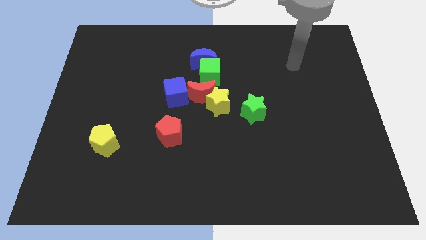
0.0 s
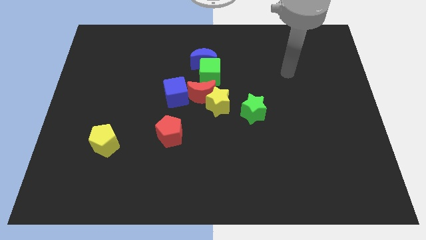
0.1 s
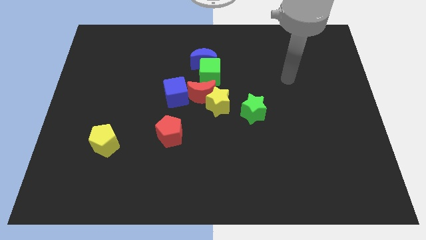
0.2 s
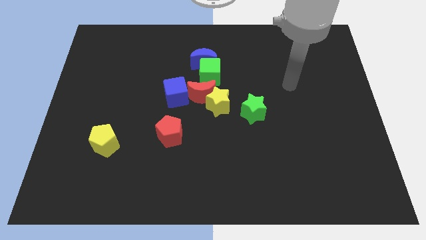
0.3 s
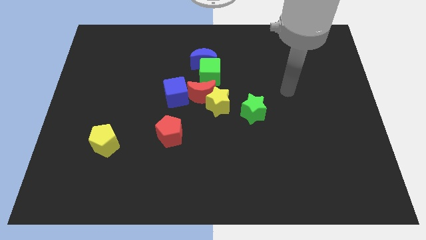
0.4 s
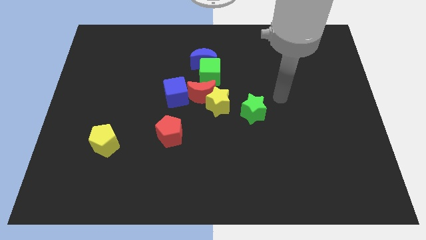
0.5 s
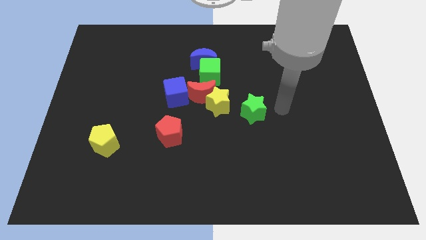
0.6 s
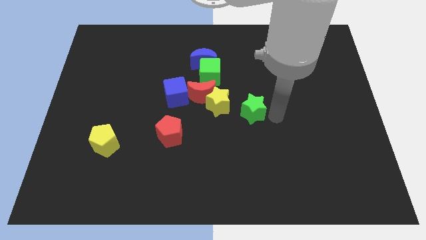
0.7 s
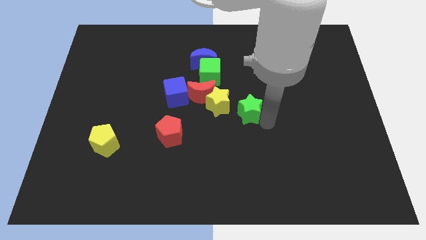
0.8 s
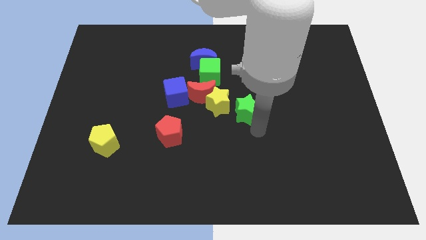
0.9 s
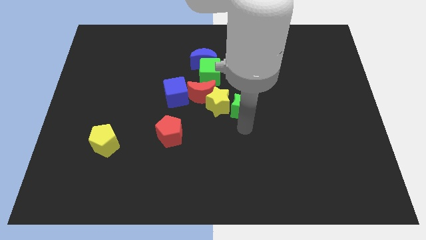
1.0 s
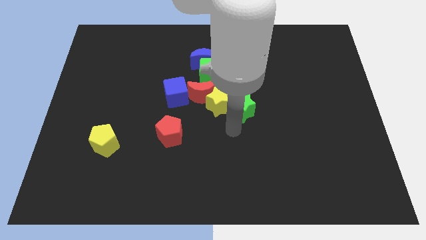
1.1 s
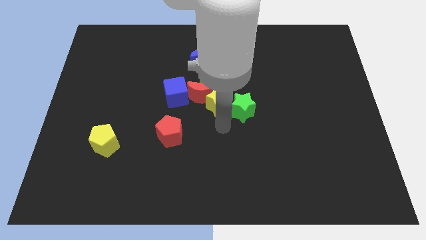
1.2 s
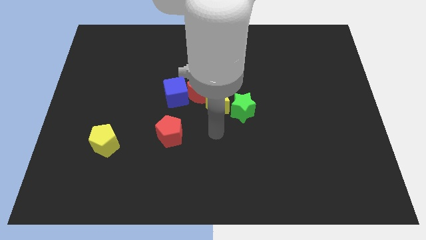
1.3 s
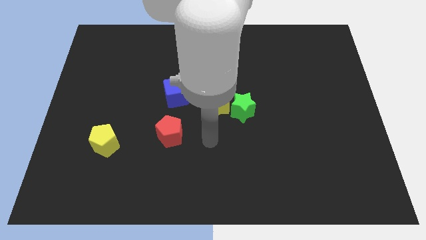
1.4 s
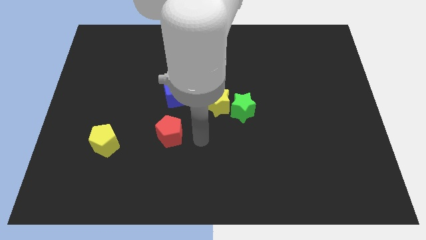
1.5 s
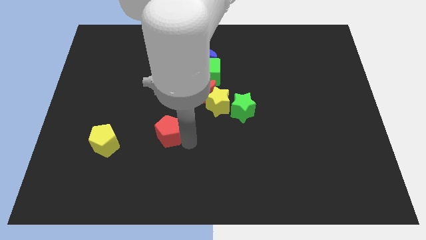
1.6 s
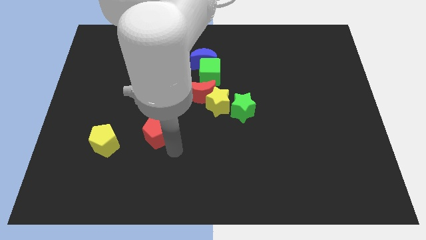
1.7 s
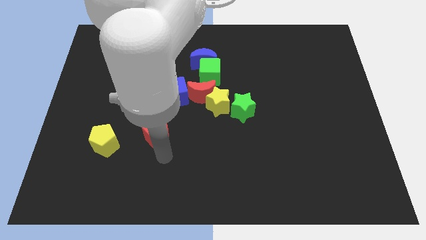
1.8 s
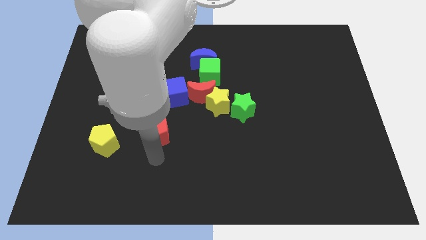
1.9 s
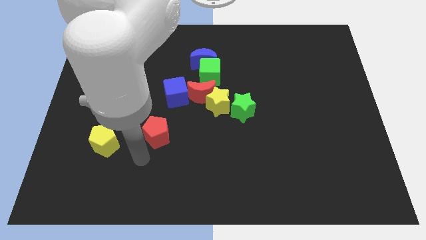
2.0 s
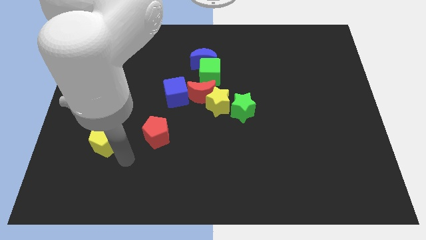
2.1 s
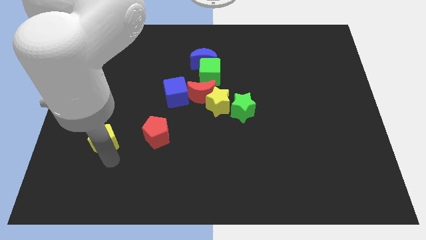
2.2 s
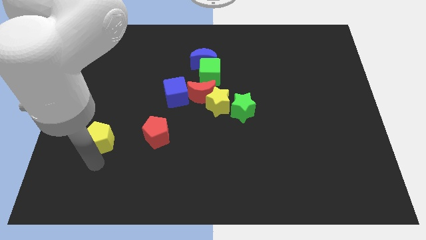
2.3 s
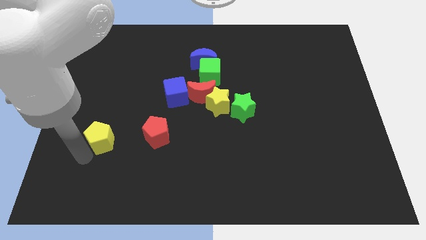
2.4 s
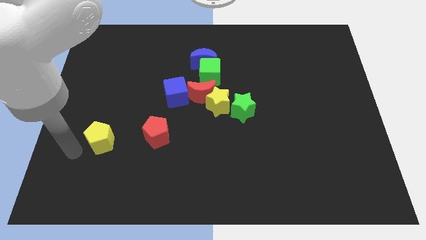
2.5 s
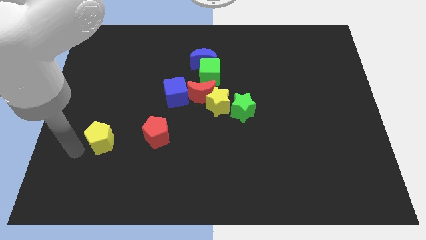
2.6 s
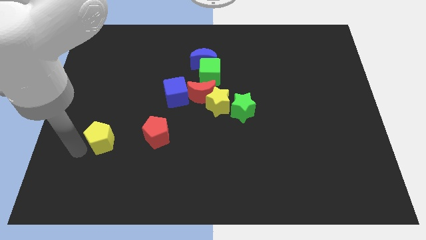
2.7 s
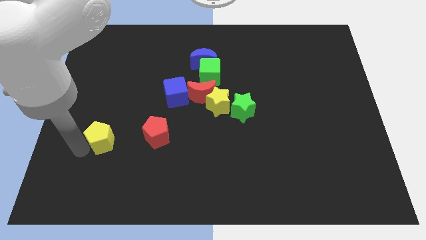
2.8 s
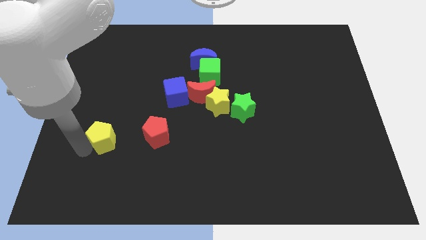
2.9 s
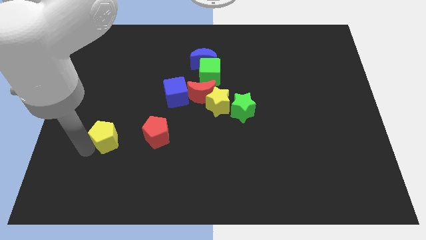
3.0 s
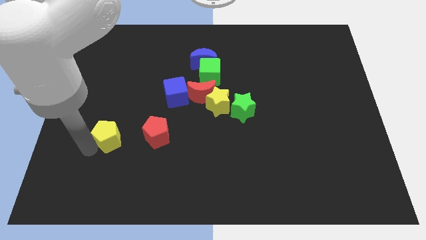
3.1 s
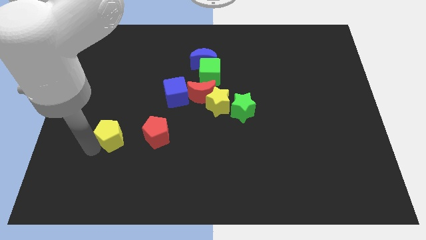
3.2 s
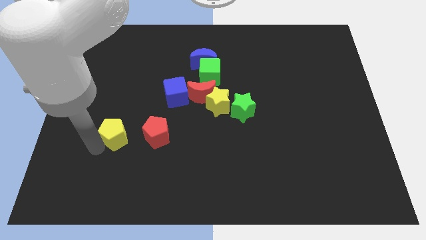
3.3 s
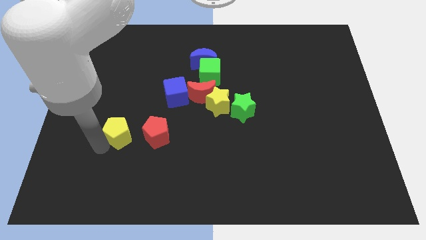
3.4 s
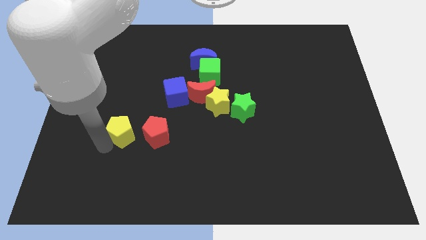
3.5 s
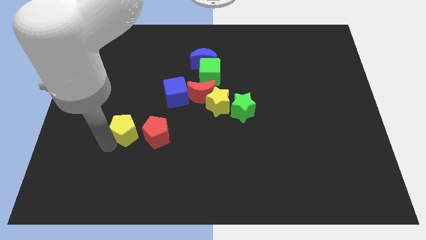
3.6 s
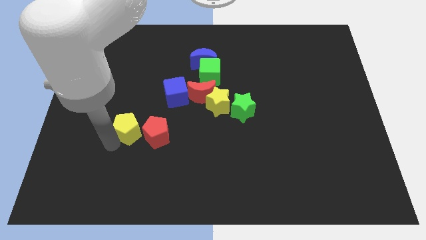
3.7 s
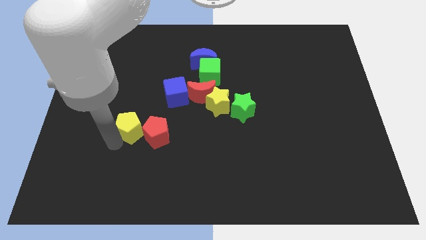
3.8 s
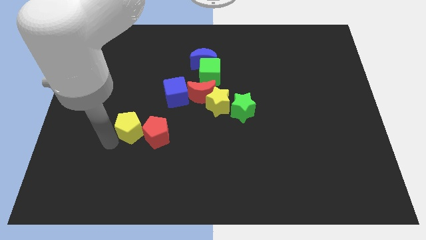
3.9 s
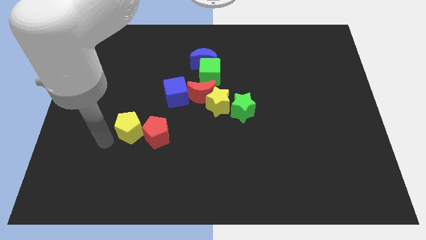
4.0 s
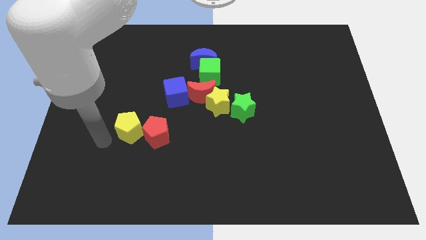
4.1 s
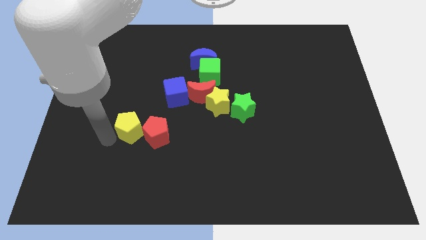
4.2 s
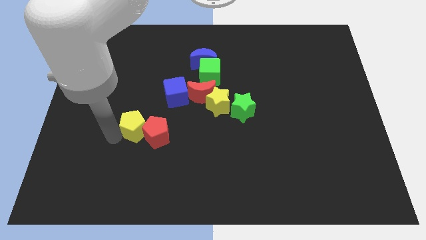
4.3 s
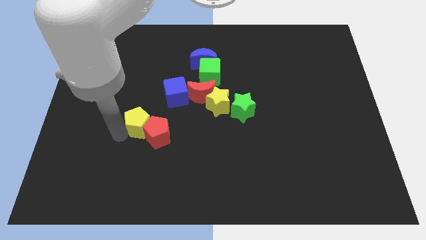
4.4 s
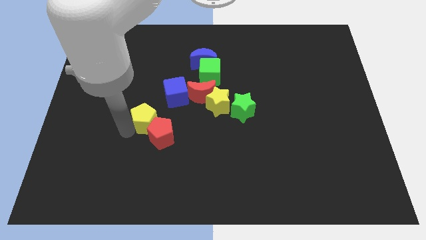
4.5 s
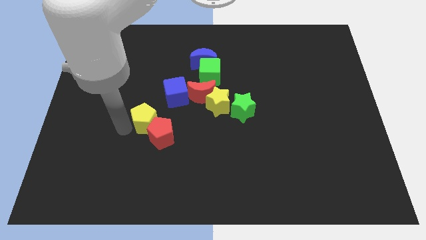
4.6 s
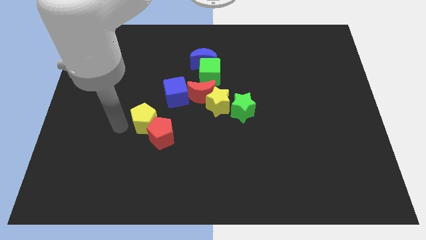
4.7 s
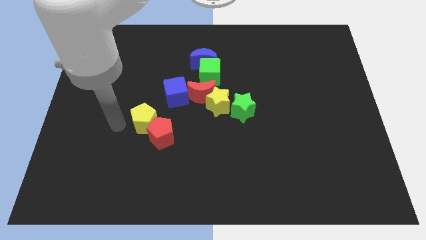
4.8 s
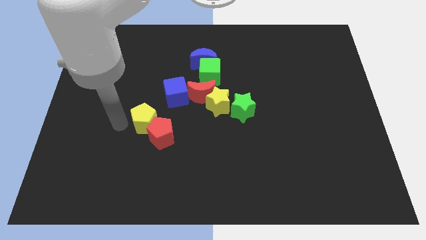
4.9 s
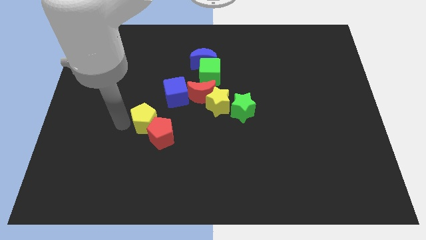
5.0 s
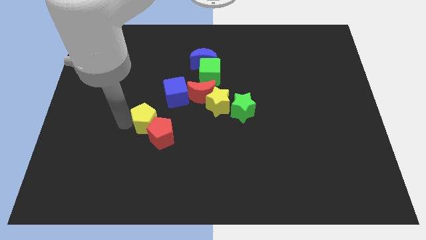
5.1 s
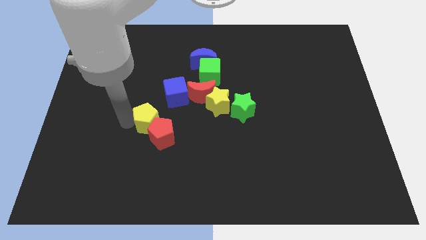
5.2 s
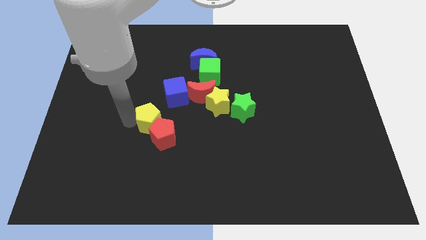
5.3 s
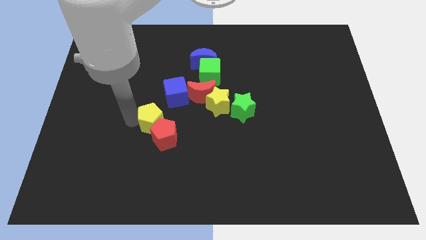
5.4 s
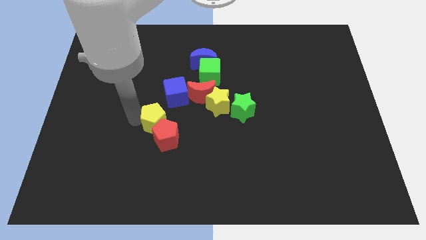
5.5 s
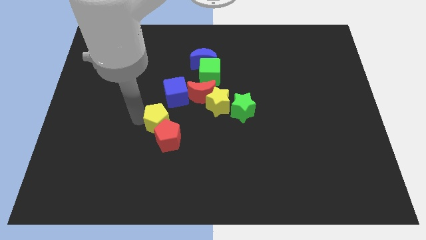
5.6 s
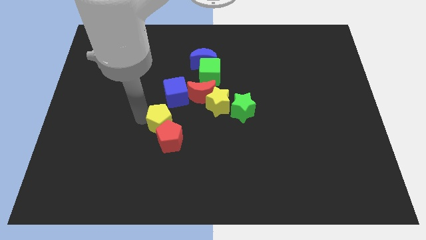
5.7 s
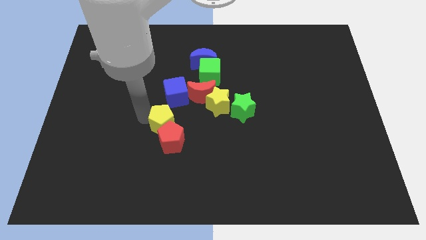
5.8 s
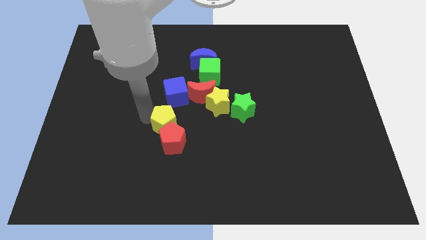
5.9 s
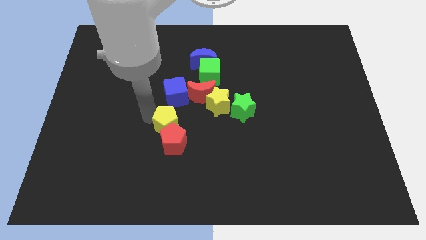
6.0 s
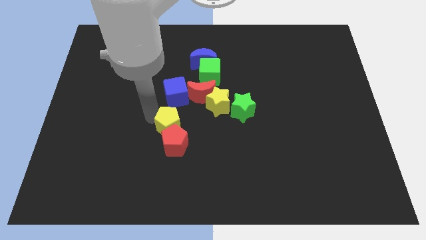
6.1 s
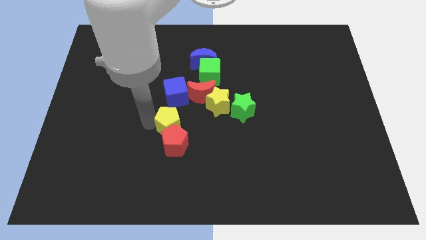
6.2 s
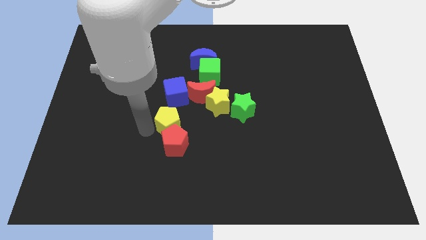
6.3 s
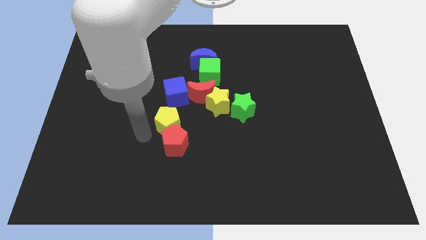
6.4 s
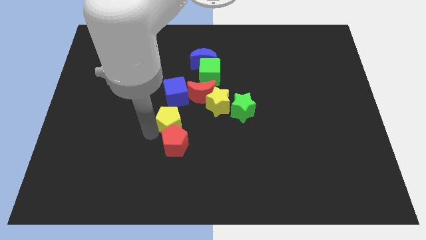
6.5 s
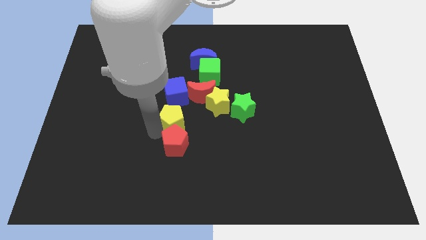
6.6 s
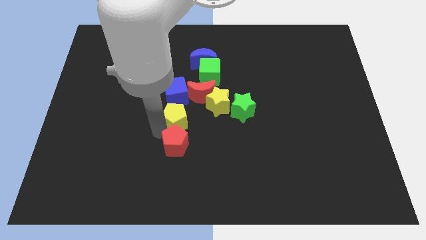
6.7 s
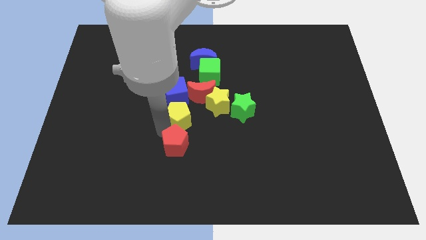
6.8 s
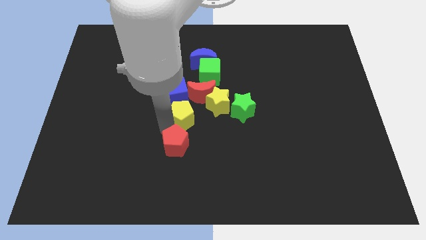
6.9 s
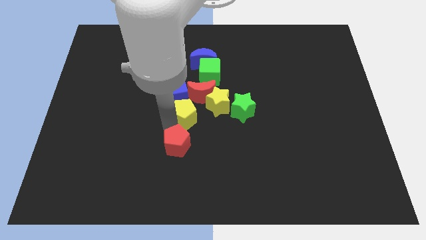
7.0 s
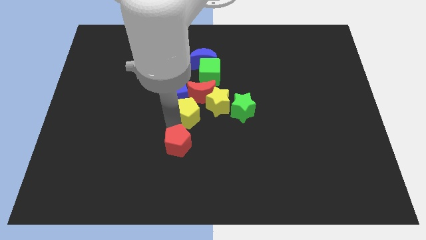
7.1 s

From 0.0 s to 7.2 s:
slide the yellow pentagon below the green cube

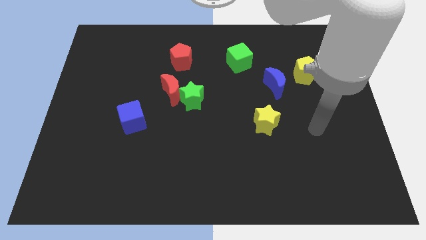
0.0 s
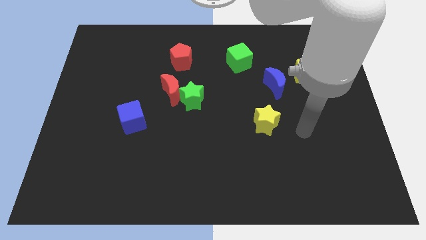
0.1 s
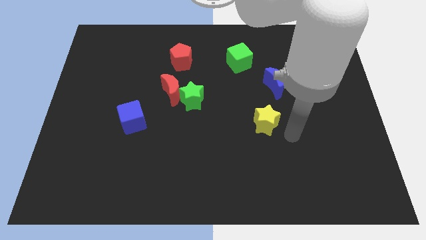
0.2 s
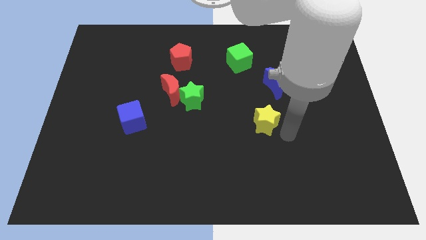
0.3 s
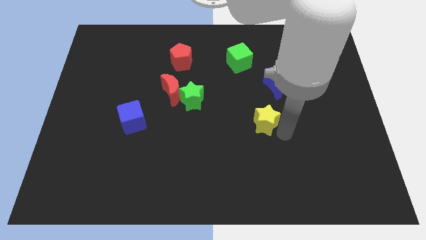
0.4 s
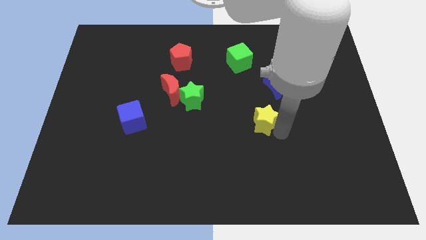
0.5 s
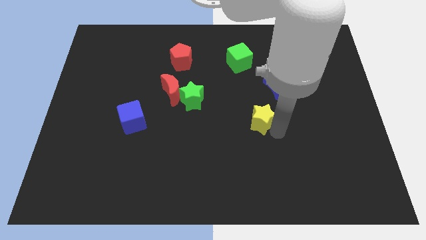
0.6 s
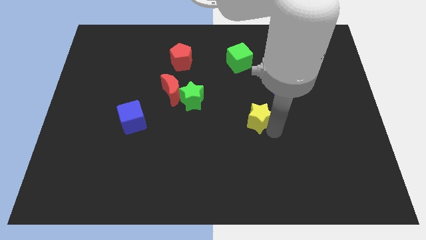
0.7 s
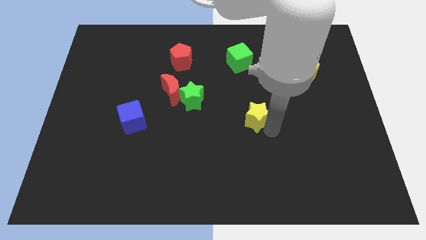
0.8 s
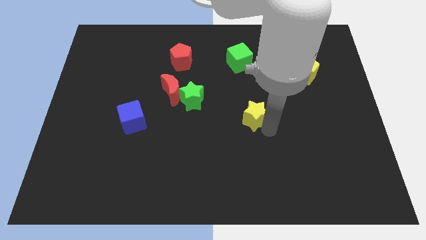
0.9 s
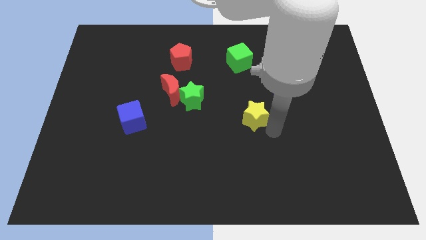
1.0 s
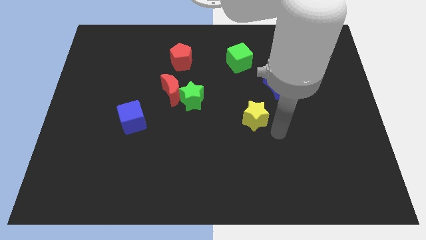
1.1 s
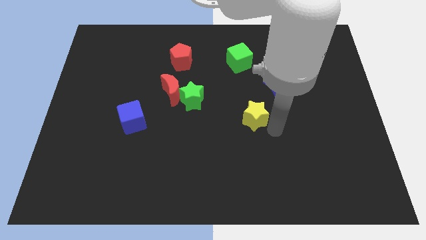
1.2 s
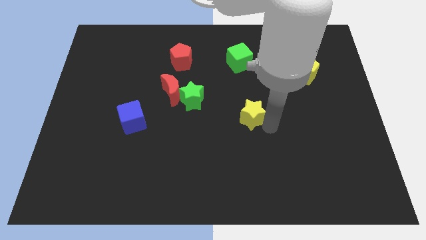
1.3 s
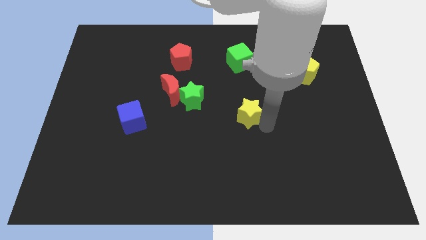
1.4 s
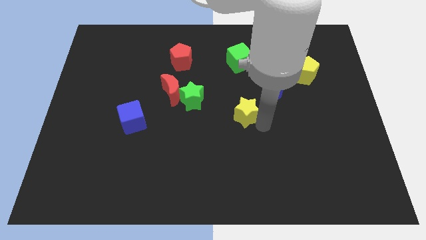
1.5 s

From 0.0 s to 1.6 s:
move the yellow star right of the green star
